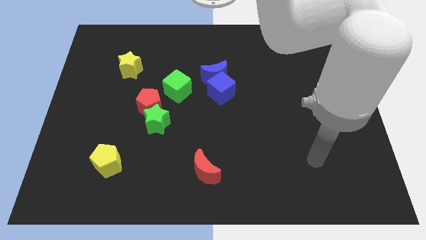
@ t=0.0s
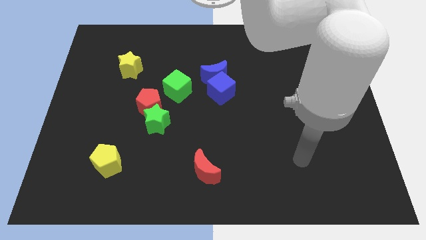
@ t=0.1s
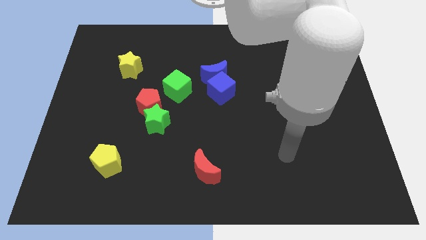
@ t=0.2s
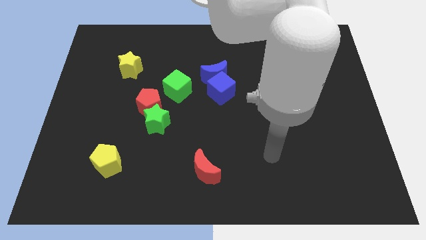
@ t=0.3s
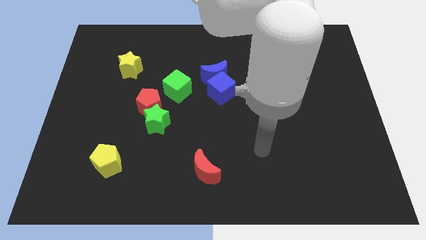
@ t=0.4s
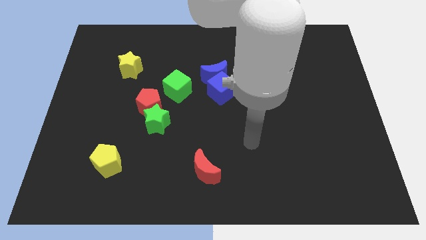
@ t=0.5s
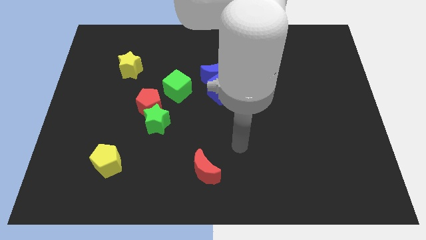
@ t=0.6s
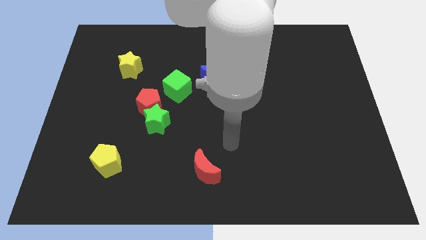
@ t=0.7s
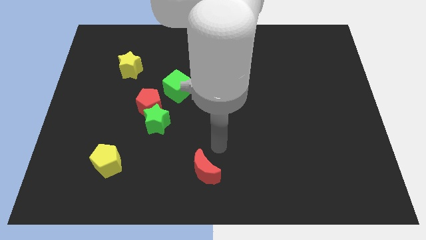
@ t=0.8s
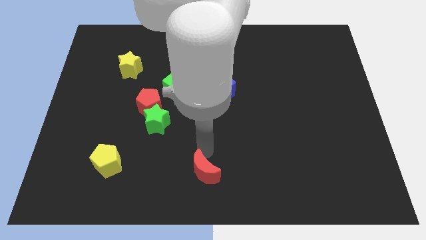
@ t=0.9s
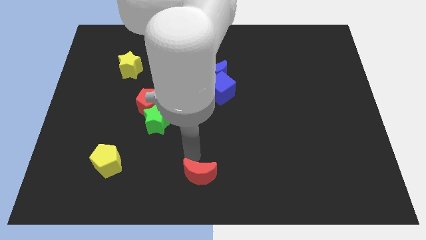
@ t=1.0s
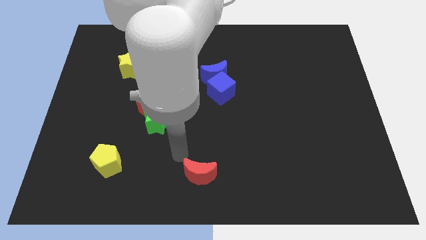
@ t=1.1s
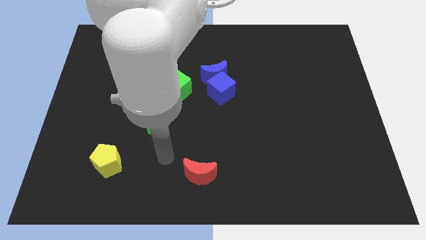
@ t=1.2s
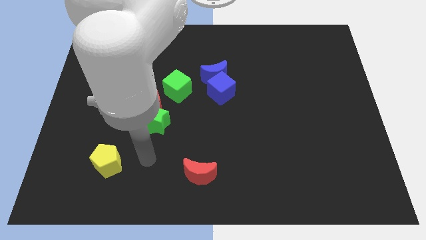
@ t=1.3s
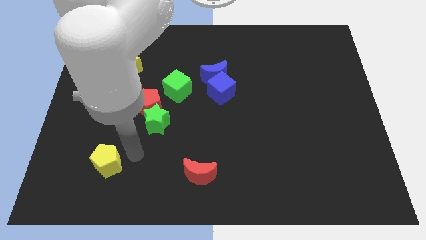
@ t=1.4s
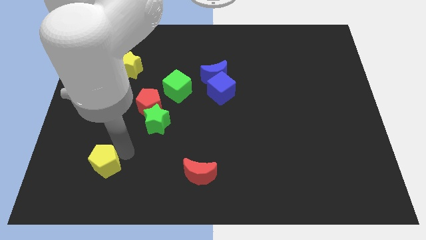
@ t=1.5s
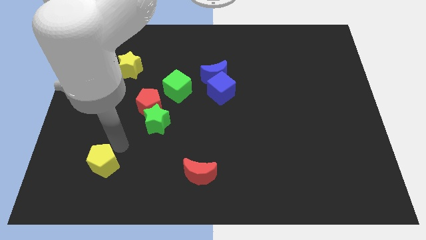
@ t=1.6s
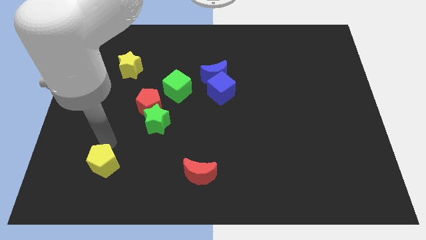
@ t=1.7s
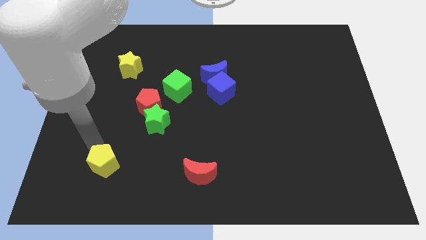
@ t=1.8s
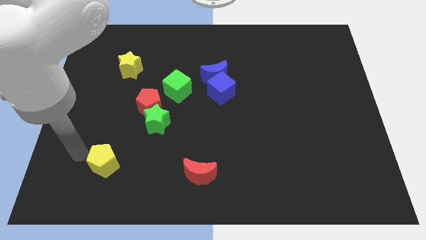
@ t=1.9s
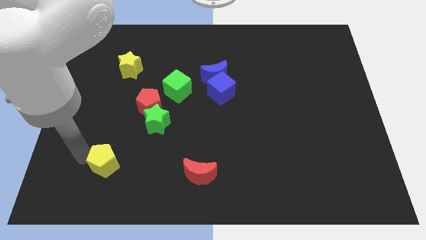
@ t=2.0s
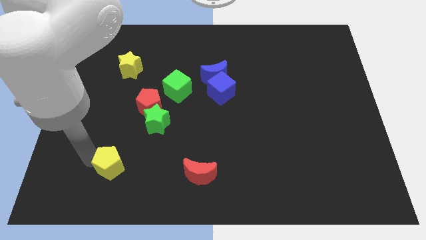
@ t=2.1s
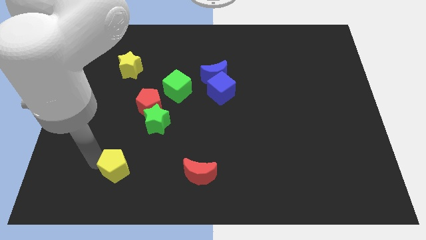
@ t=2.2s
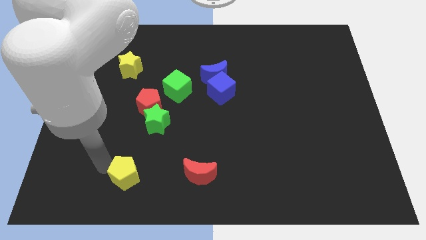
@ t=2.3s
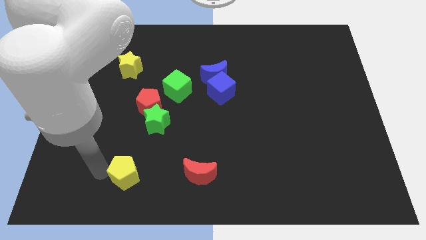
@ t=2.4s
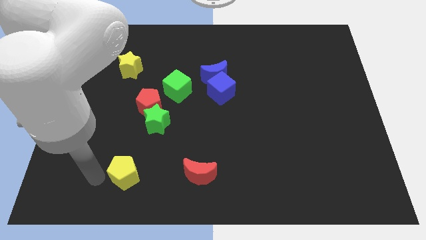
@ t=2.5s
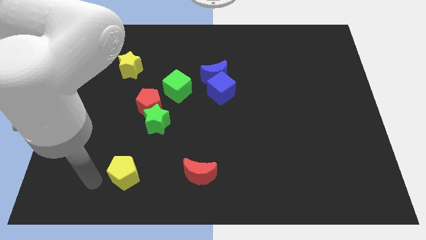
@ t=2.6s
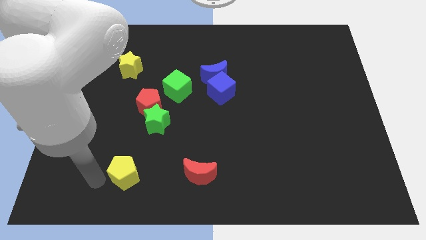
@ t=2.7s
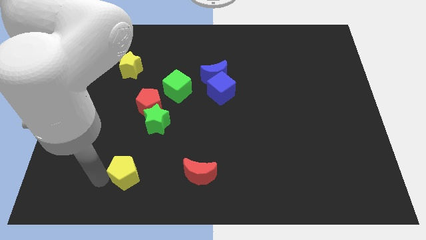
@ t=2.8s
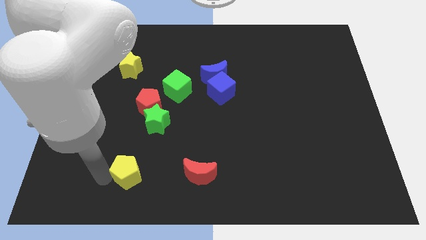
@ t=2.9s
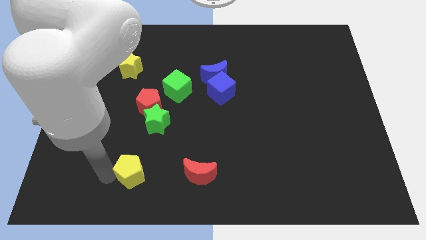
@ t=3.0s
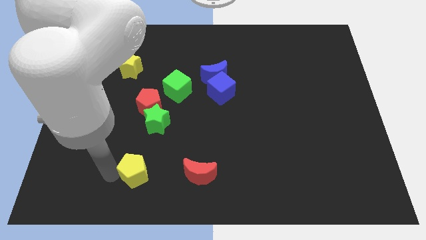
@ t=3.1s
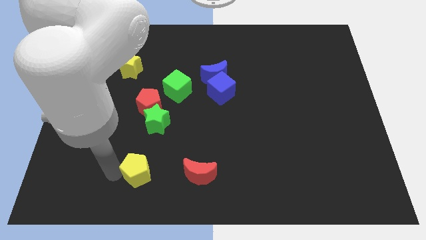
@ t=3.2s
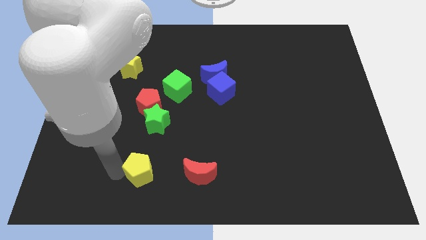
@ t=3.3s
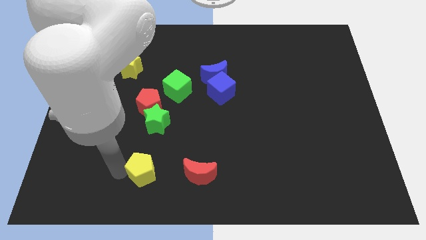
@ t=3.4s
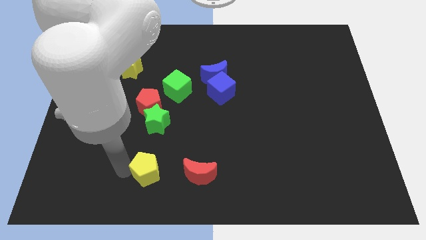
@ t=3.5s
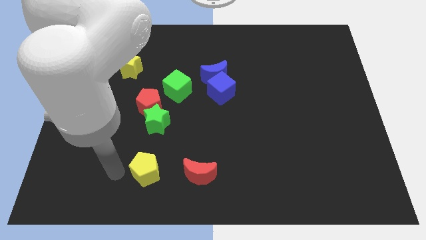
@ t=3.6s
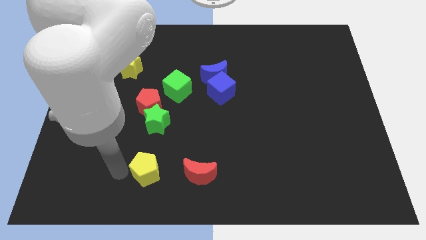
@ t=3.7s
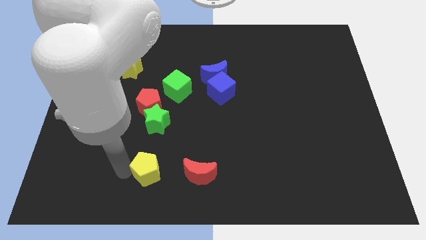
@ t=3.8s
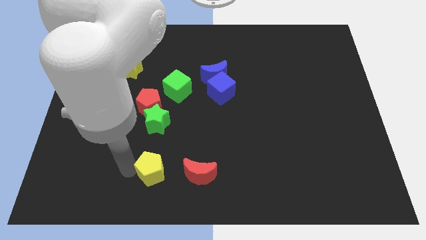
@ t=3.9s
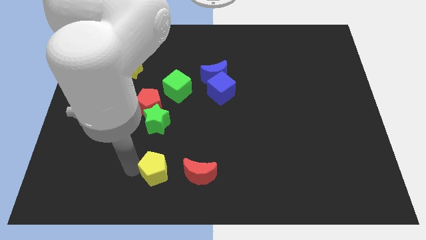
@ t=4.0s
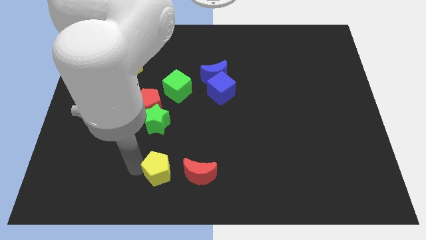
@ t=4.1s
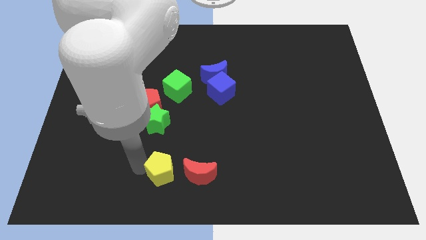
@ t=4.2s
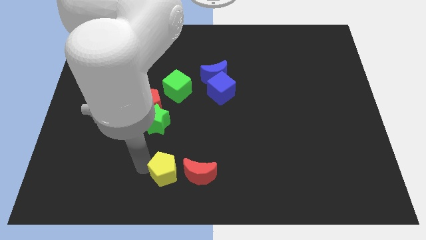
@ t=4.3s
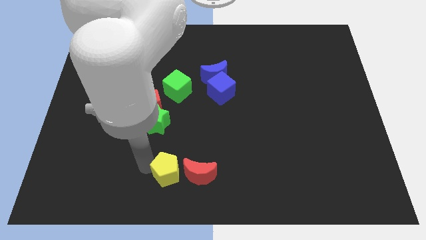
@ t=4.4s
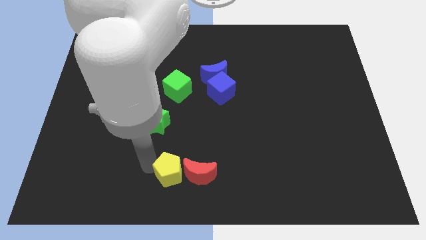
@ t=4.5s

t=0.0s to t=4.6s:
move the yellow pentagon towards the red moon

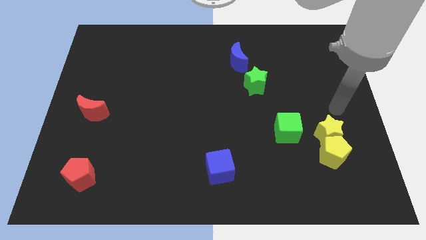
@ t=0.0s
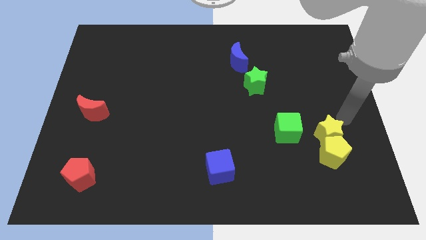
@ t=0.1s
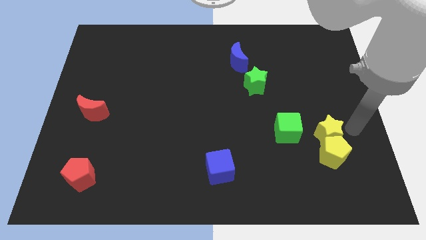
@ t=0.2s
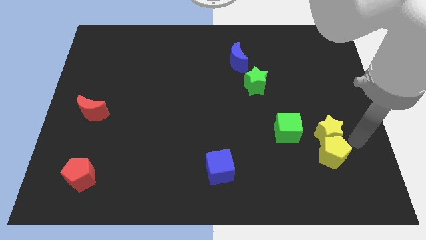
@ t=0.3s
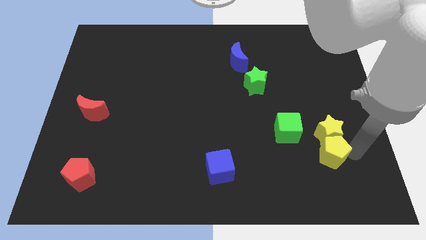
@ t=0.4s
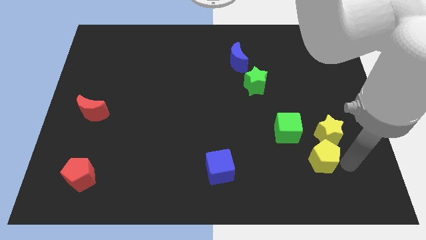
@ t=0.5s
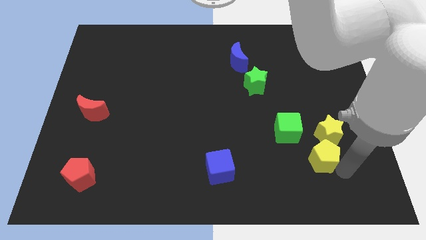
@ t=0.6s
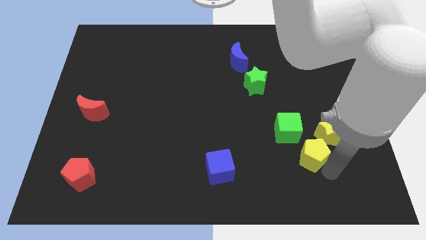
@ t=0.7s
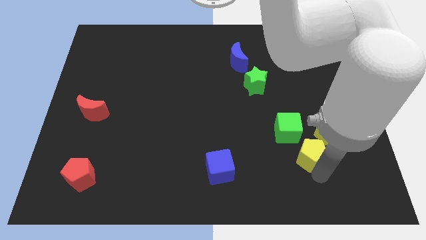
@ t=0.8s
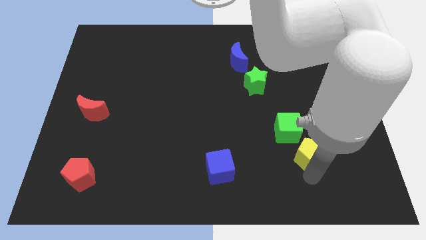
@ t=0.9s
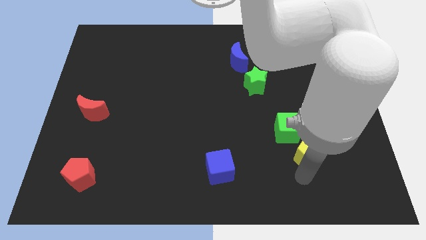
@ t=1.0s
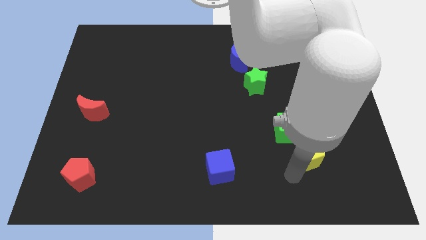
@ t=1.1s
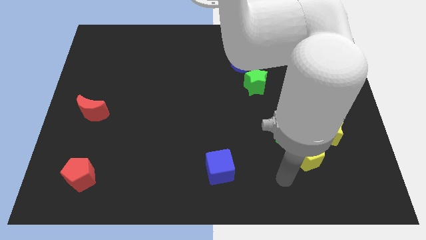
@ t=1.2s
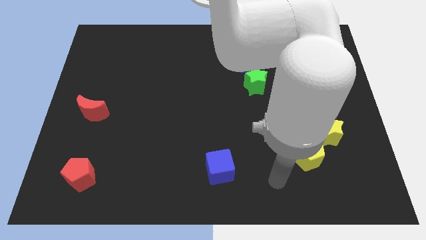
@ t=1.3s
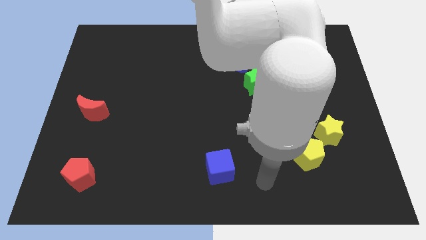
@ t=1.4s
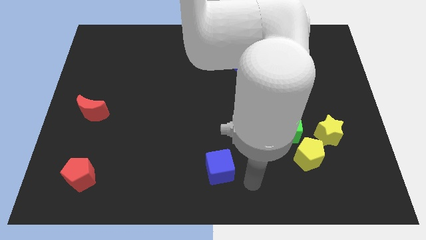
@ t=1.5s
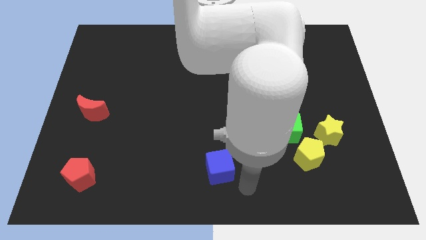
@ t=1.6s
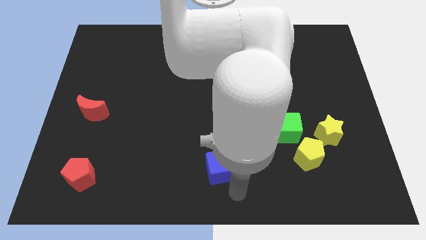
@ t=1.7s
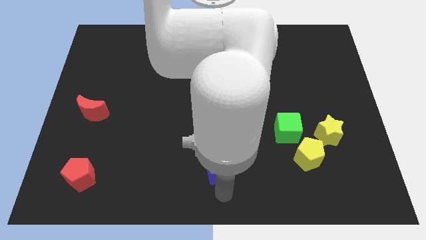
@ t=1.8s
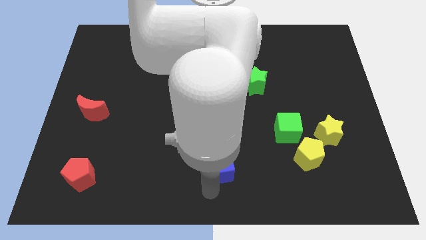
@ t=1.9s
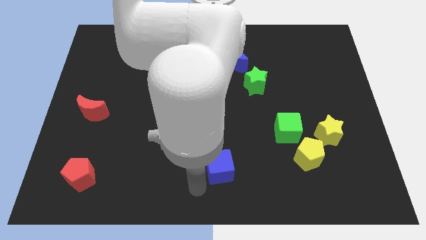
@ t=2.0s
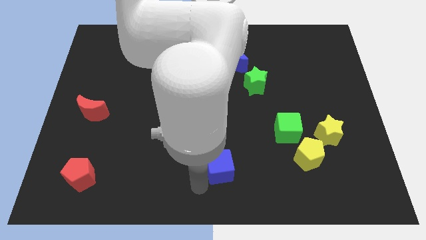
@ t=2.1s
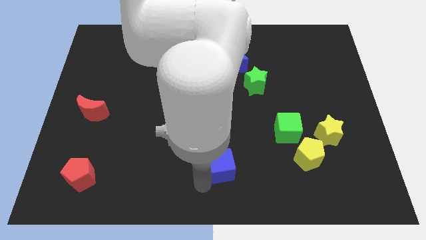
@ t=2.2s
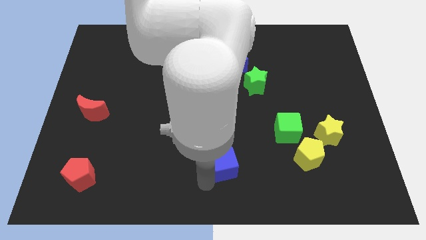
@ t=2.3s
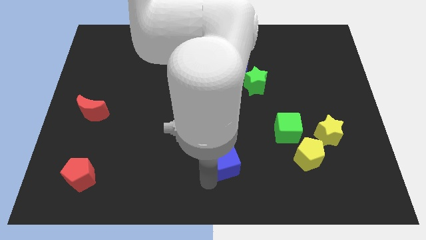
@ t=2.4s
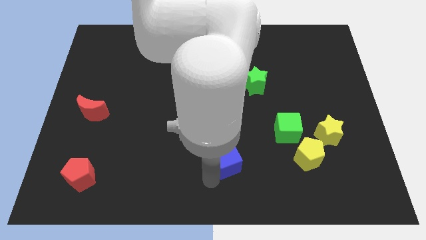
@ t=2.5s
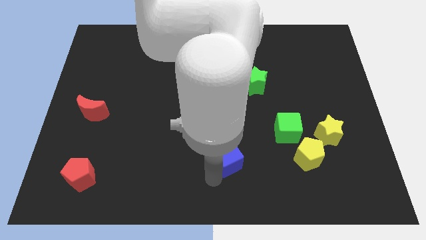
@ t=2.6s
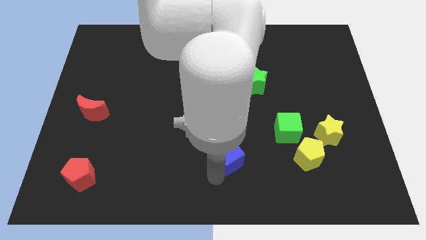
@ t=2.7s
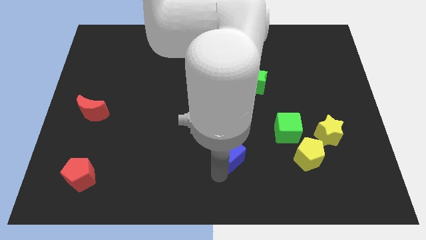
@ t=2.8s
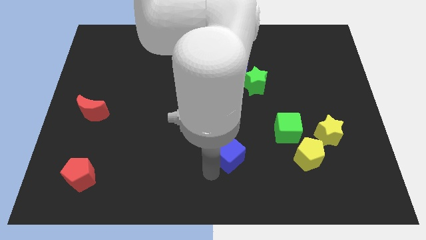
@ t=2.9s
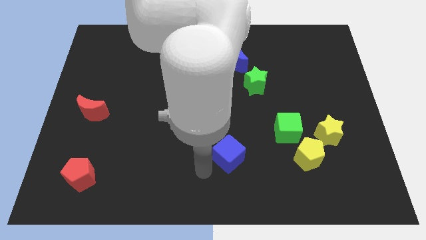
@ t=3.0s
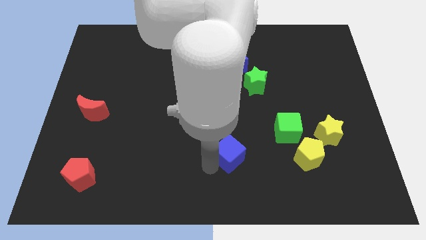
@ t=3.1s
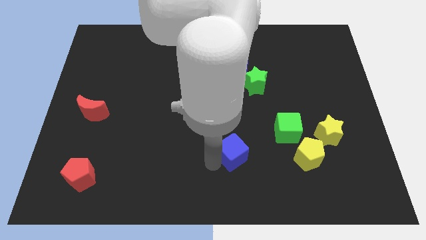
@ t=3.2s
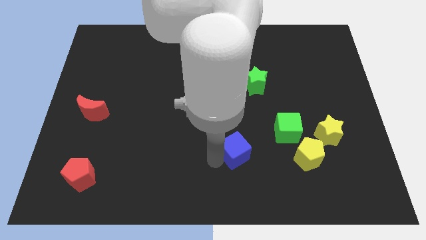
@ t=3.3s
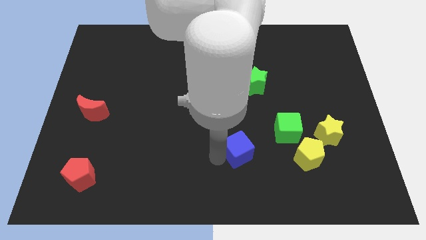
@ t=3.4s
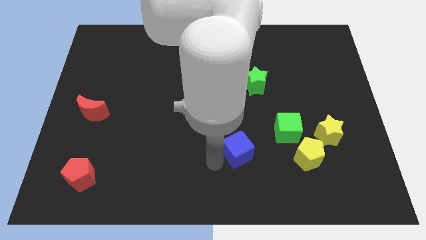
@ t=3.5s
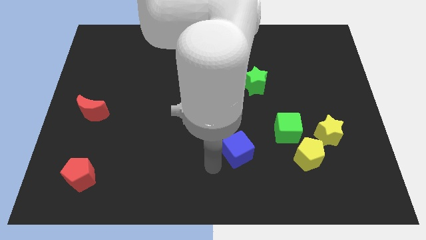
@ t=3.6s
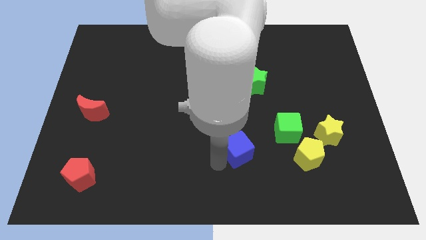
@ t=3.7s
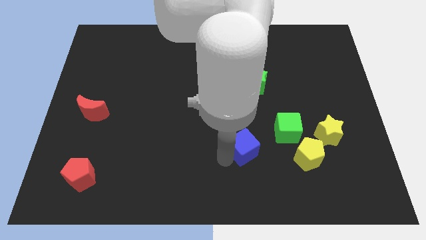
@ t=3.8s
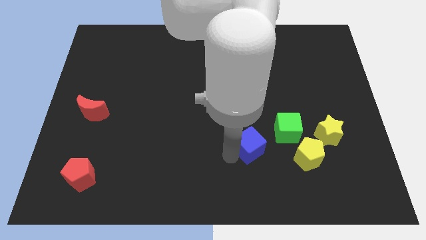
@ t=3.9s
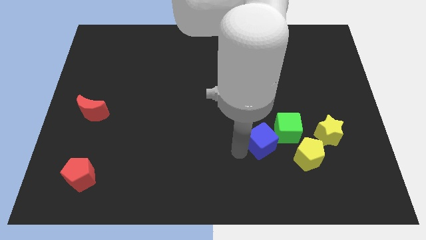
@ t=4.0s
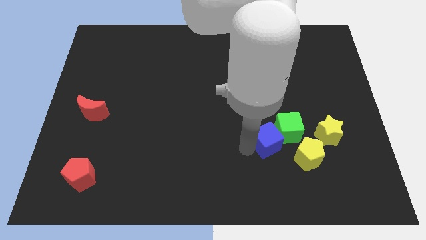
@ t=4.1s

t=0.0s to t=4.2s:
slide the blue cube close to the green cube
